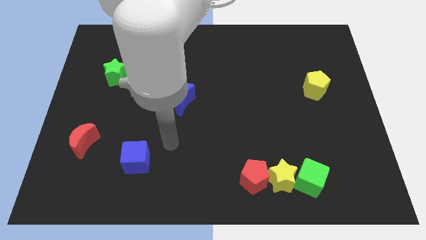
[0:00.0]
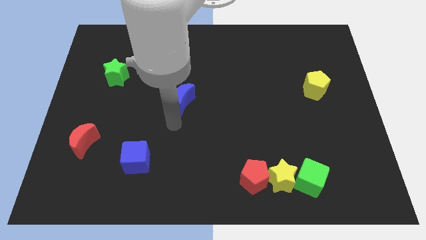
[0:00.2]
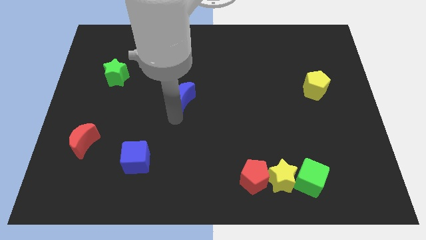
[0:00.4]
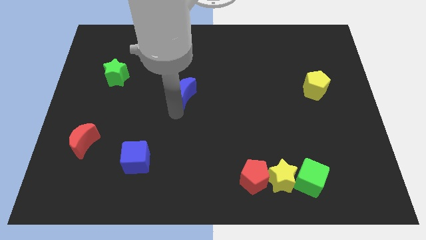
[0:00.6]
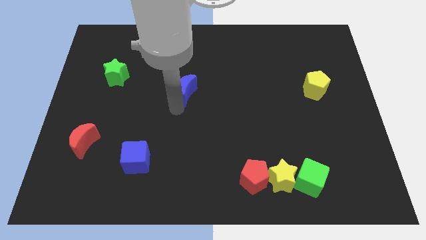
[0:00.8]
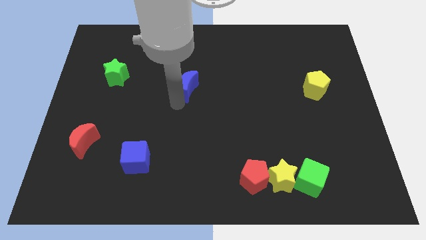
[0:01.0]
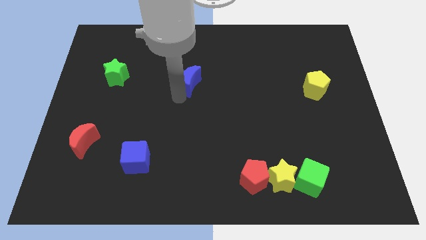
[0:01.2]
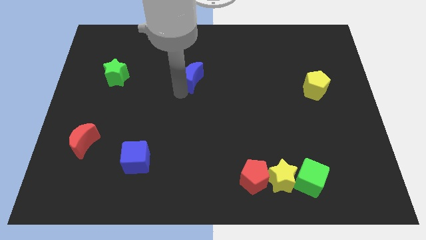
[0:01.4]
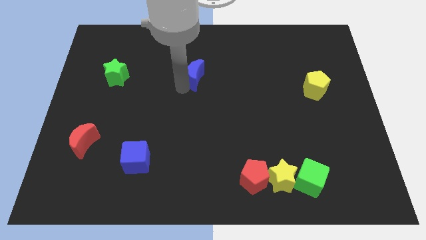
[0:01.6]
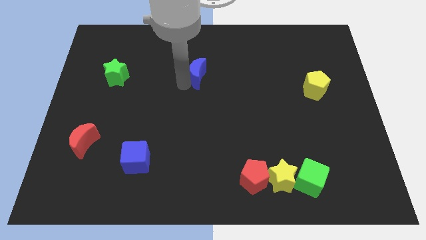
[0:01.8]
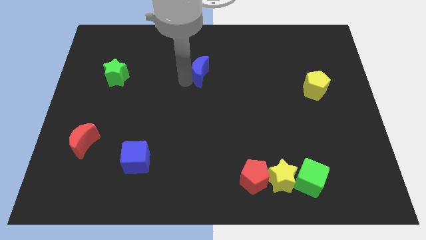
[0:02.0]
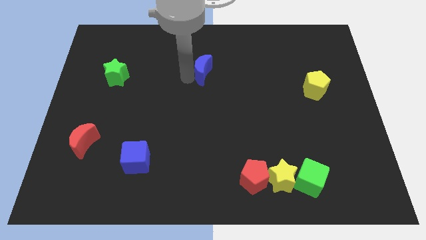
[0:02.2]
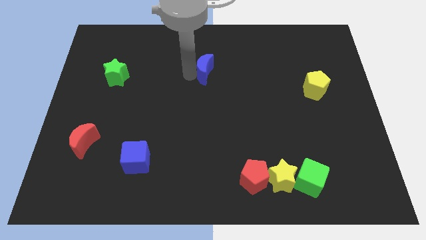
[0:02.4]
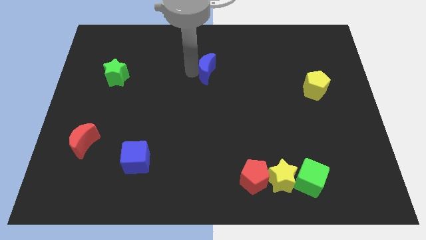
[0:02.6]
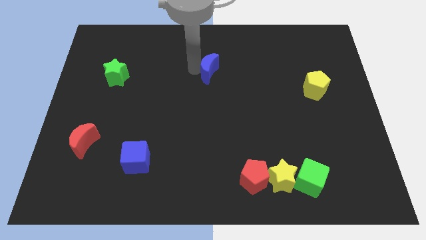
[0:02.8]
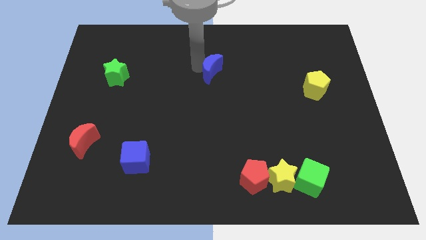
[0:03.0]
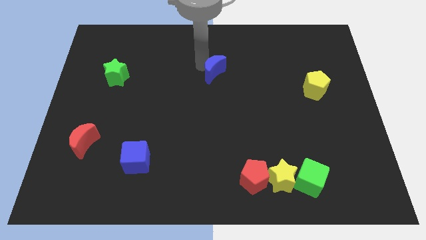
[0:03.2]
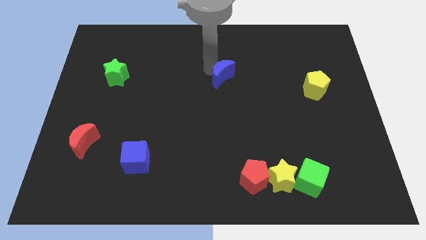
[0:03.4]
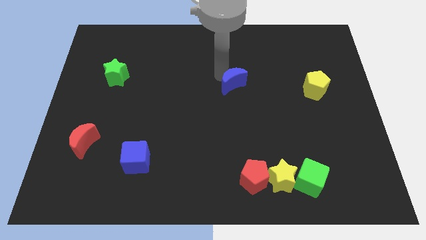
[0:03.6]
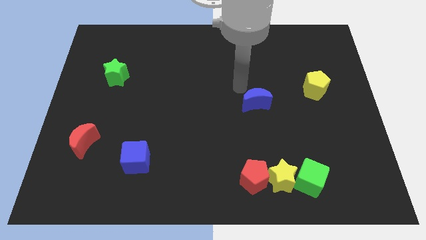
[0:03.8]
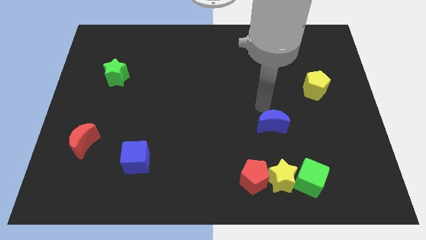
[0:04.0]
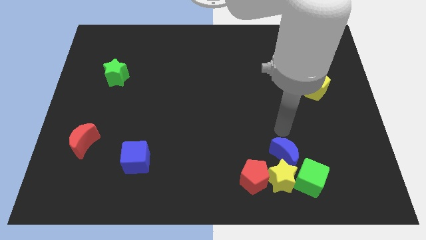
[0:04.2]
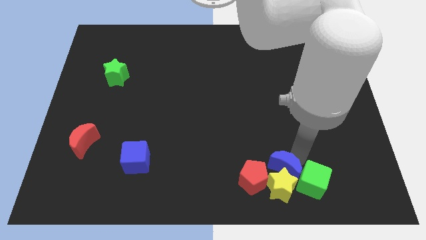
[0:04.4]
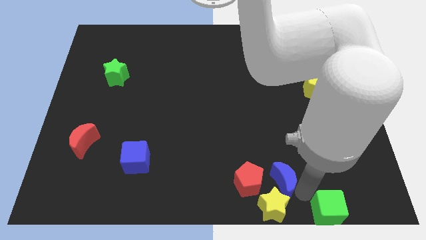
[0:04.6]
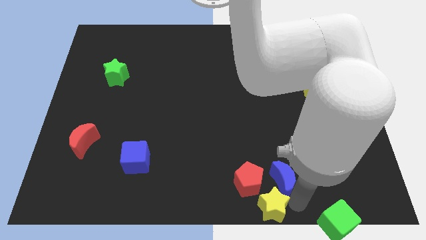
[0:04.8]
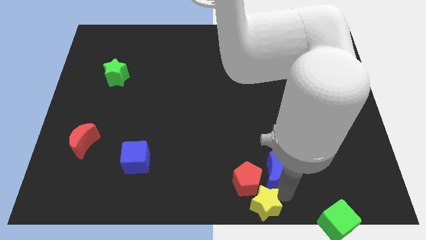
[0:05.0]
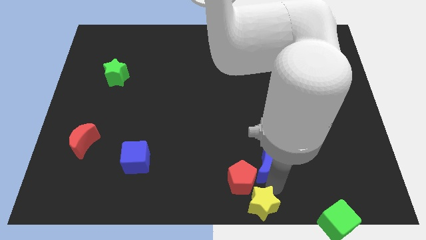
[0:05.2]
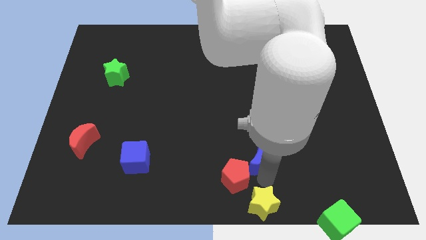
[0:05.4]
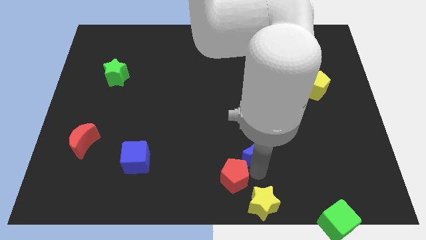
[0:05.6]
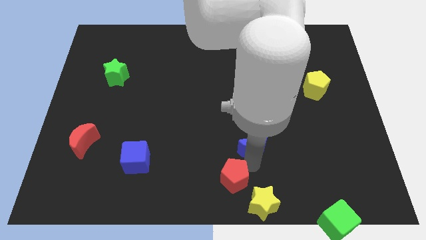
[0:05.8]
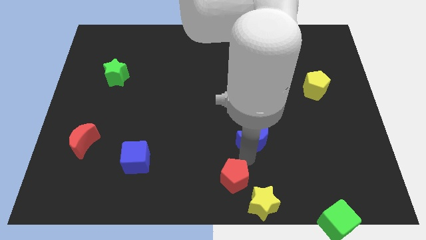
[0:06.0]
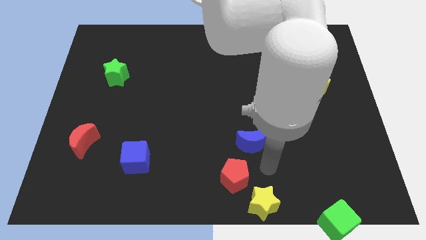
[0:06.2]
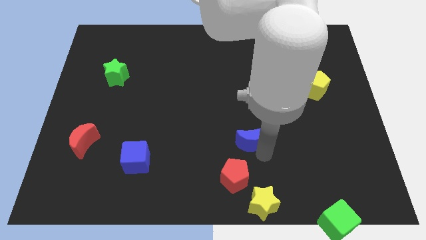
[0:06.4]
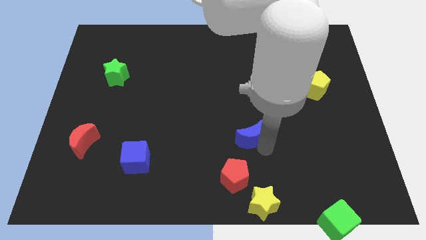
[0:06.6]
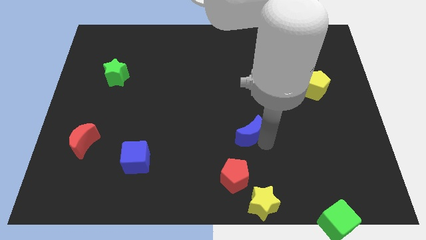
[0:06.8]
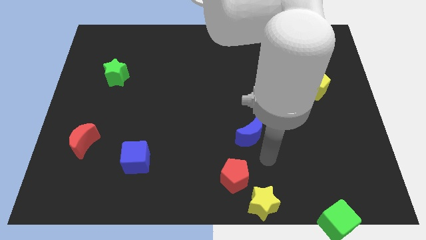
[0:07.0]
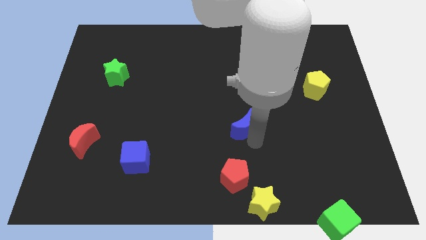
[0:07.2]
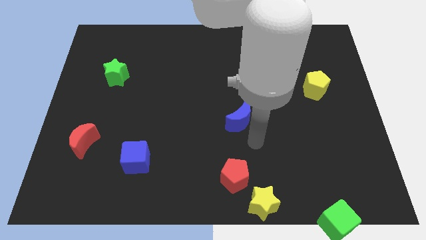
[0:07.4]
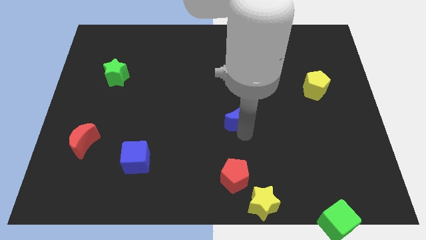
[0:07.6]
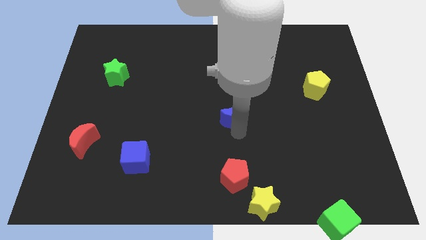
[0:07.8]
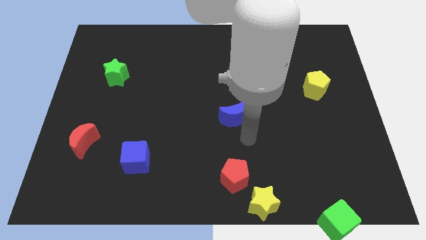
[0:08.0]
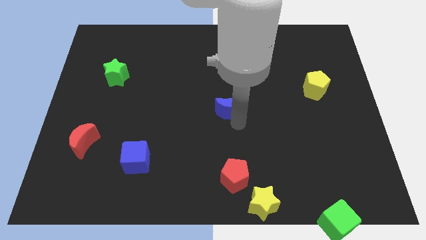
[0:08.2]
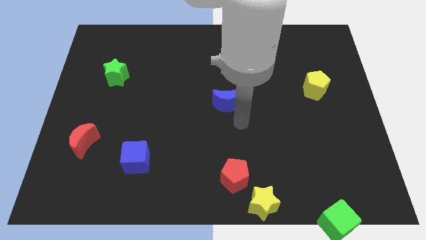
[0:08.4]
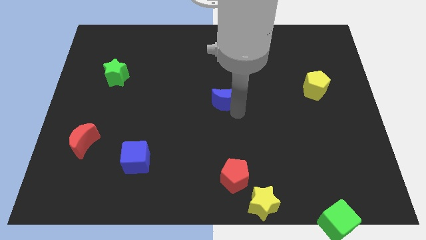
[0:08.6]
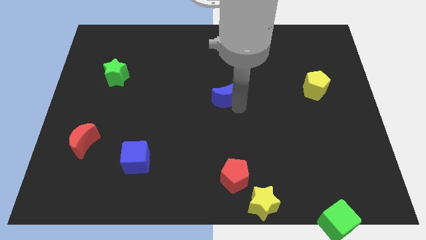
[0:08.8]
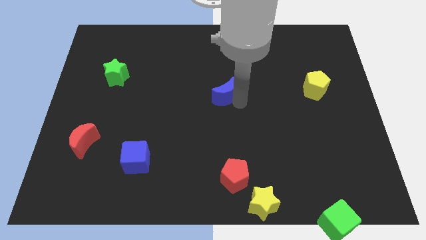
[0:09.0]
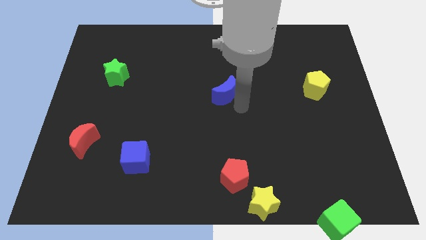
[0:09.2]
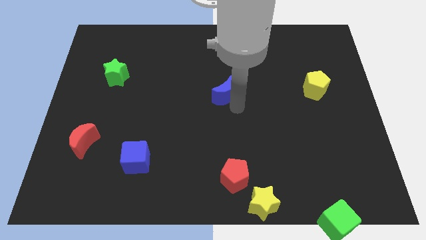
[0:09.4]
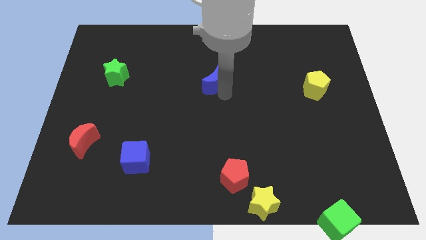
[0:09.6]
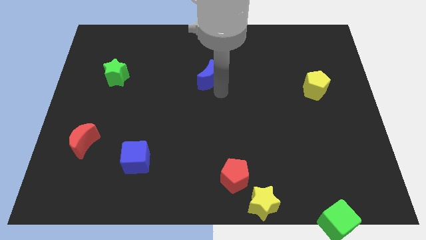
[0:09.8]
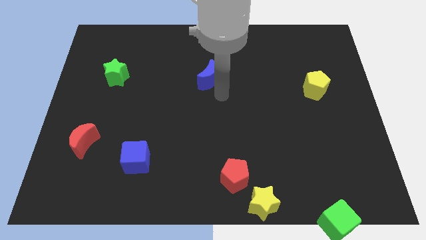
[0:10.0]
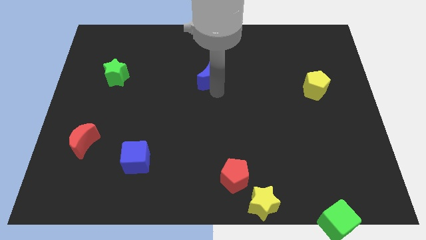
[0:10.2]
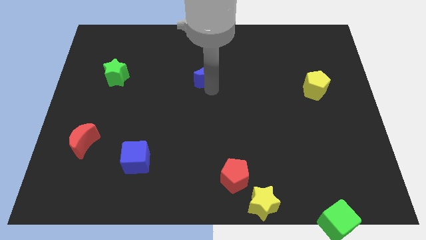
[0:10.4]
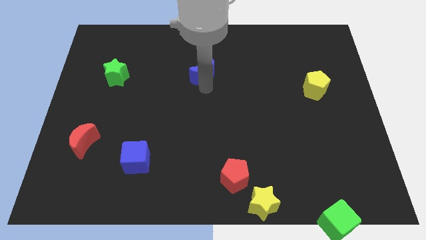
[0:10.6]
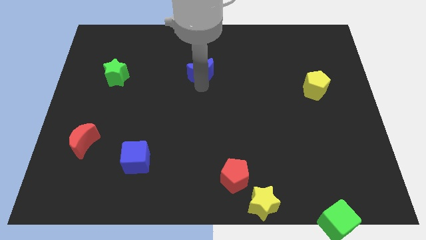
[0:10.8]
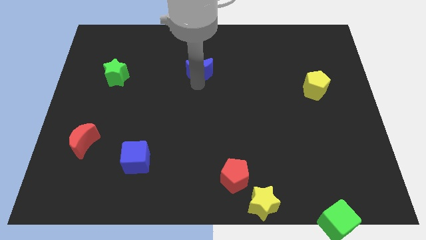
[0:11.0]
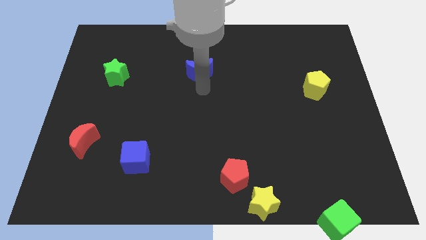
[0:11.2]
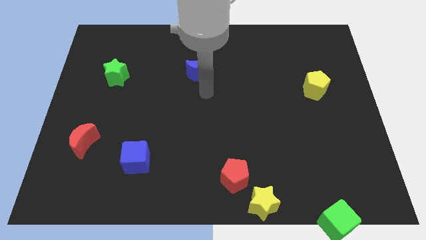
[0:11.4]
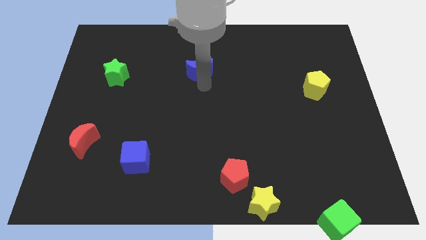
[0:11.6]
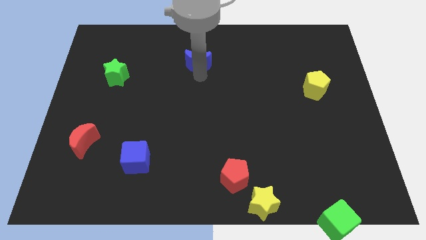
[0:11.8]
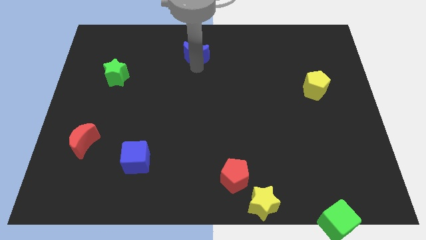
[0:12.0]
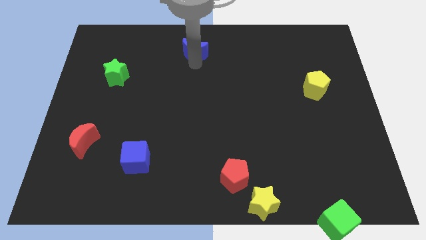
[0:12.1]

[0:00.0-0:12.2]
push the blue moon to the top

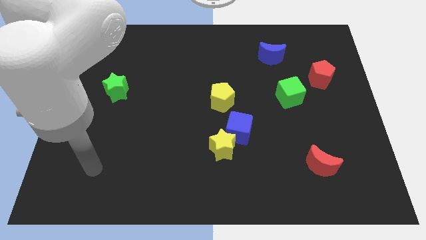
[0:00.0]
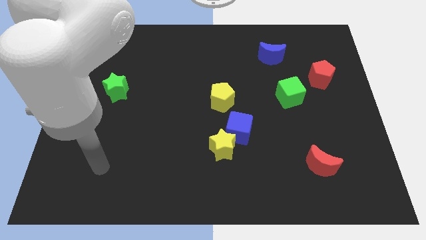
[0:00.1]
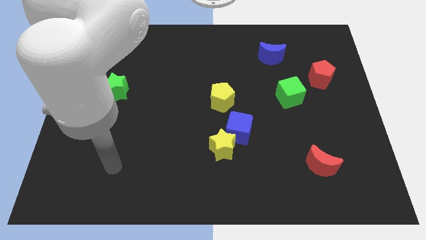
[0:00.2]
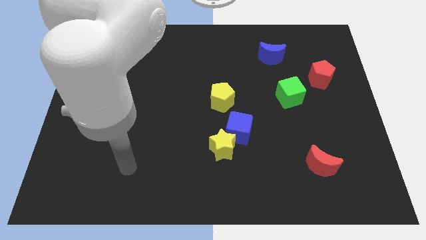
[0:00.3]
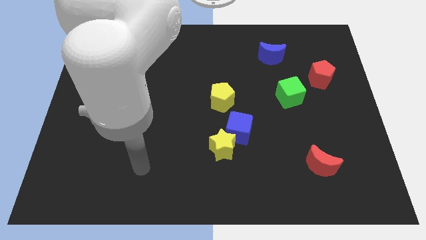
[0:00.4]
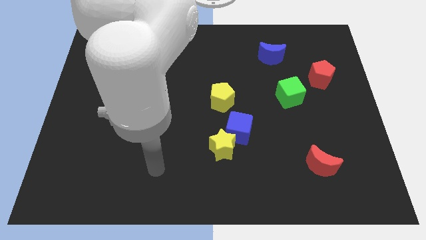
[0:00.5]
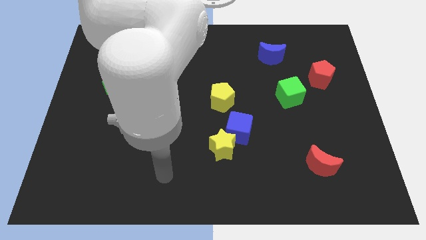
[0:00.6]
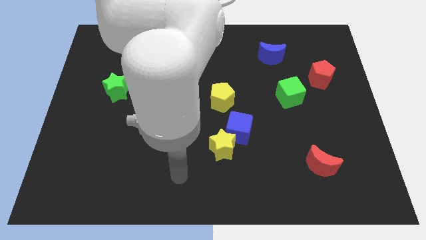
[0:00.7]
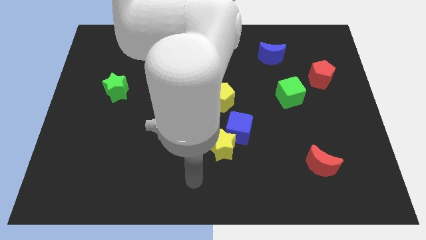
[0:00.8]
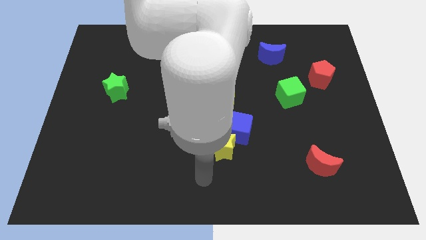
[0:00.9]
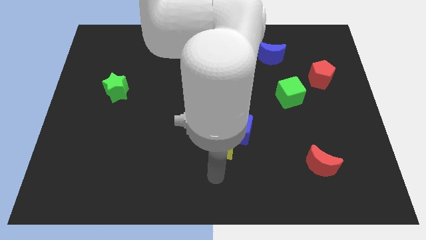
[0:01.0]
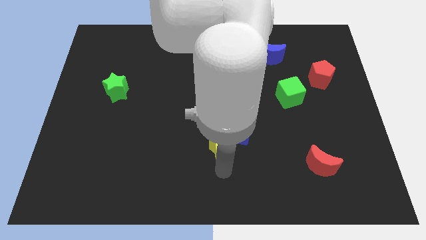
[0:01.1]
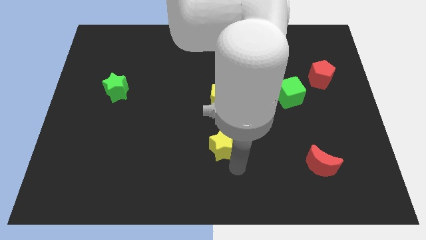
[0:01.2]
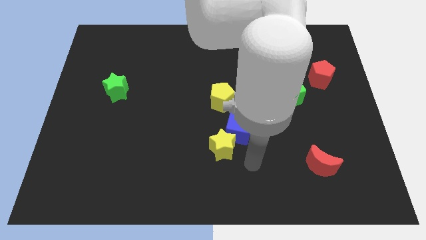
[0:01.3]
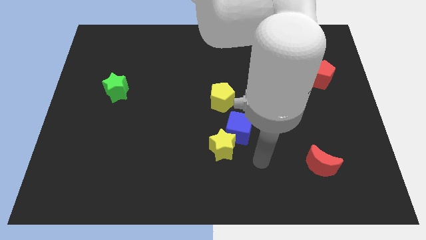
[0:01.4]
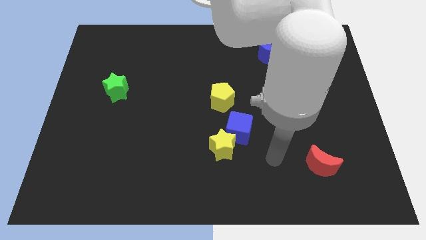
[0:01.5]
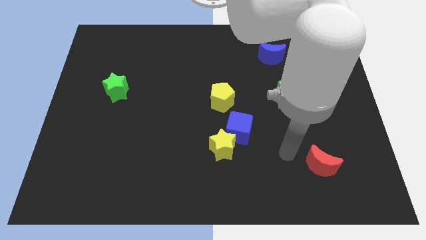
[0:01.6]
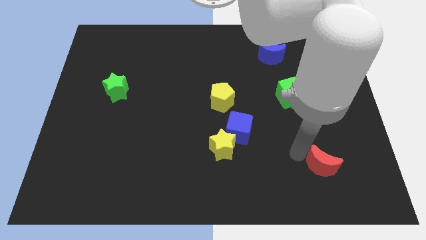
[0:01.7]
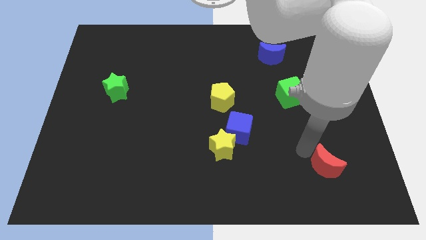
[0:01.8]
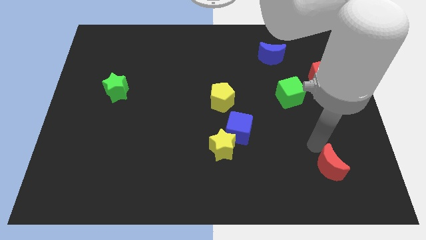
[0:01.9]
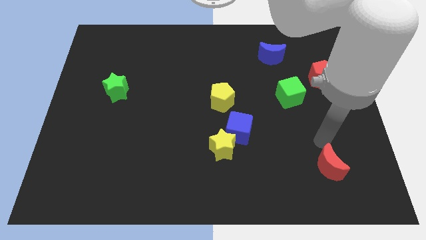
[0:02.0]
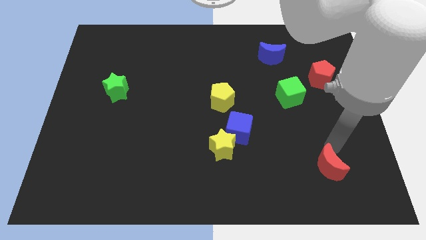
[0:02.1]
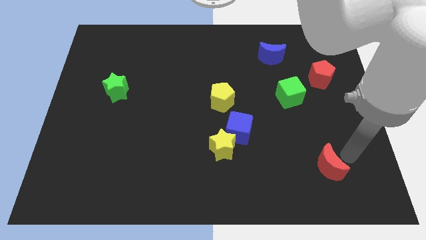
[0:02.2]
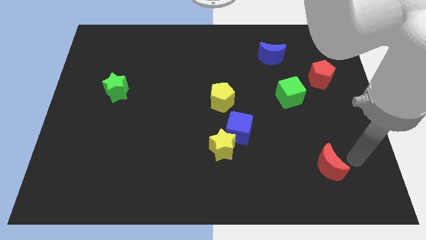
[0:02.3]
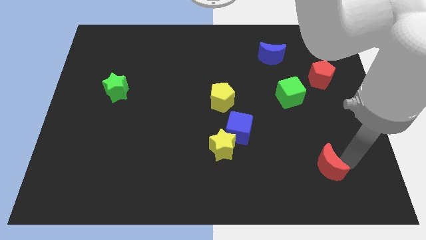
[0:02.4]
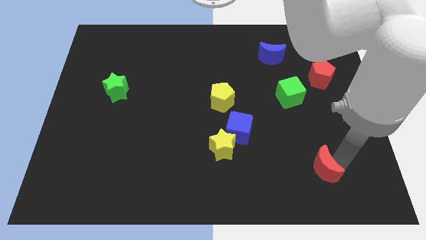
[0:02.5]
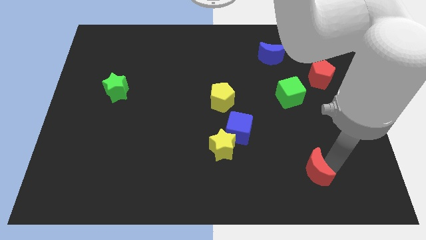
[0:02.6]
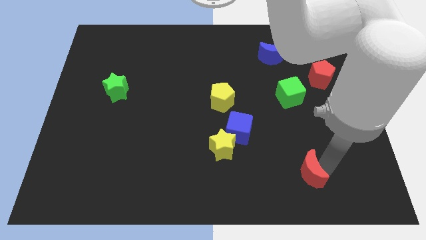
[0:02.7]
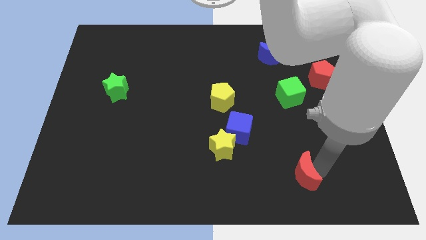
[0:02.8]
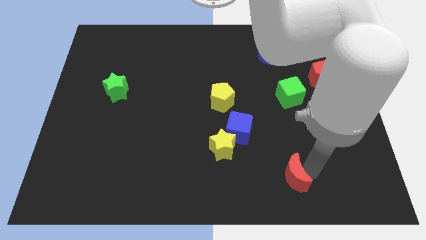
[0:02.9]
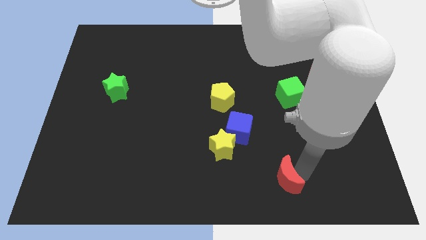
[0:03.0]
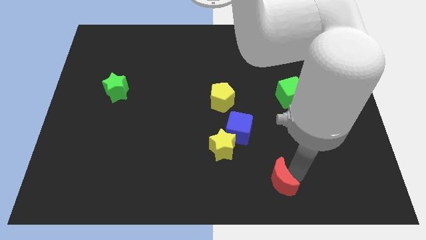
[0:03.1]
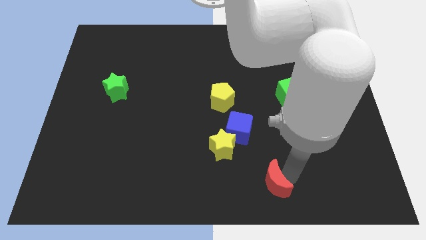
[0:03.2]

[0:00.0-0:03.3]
push the red moon to the bottom
